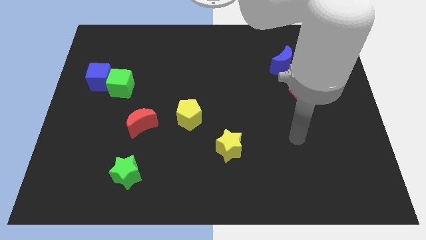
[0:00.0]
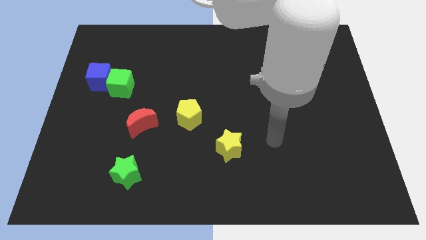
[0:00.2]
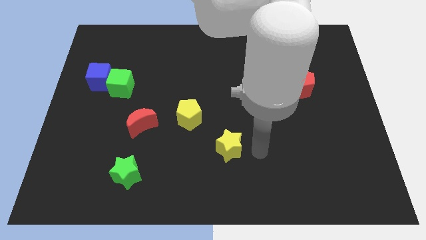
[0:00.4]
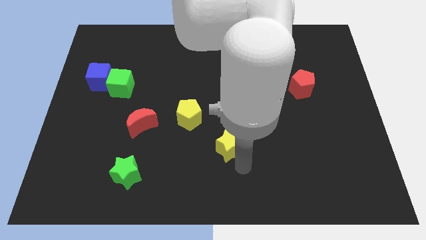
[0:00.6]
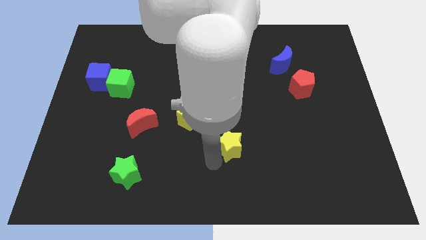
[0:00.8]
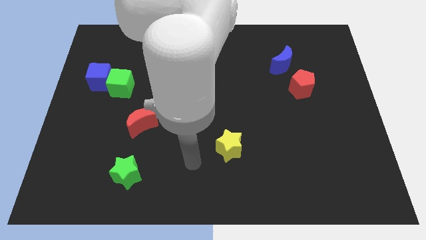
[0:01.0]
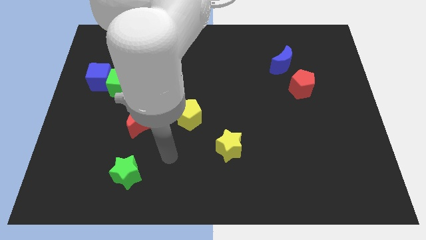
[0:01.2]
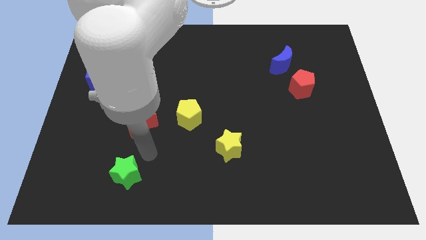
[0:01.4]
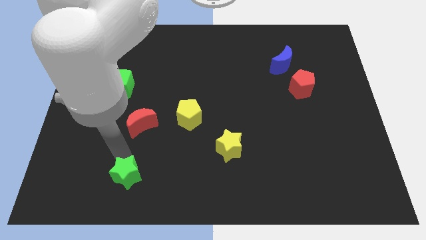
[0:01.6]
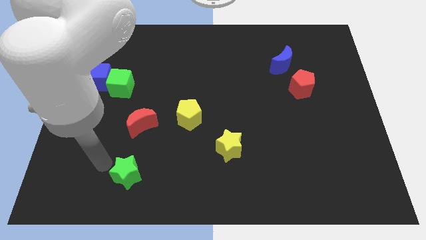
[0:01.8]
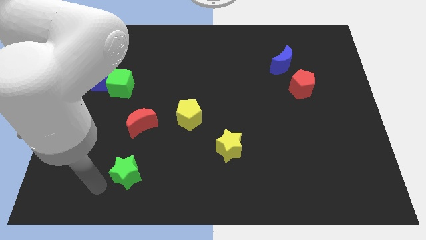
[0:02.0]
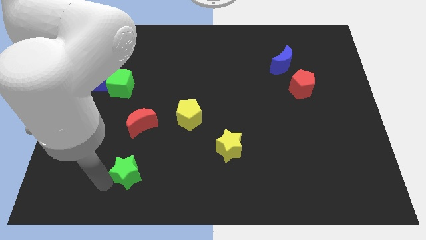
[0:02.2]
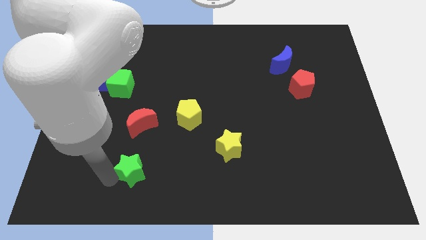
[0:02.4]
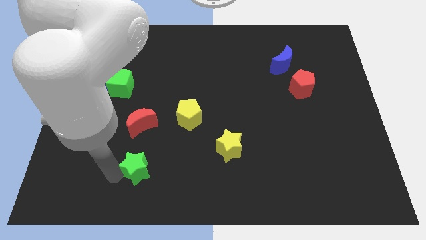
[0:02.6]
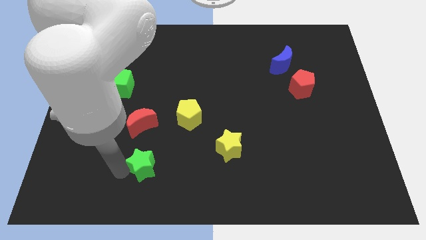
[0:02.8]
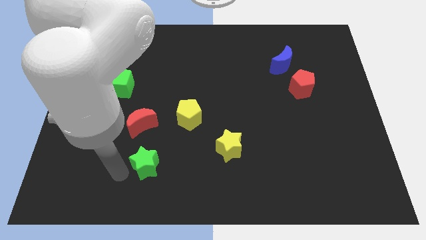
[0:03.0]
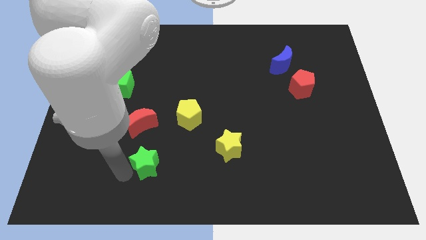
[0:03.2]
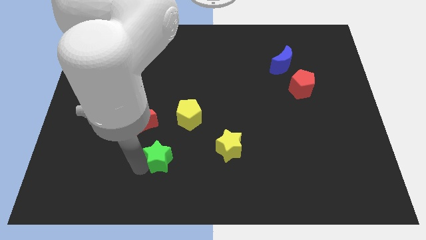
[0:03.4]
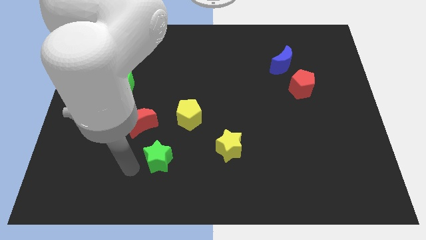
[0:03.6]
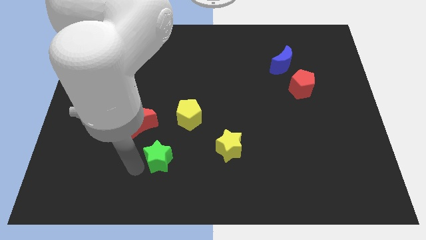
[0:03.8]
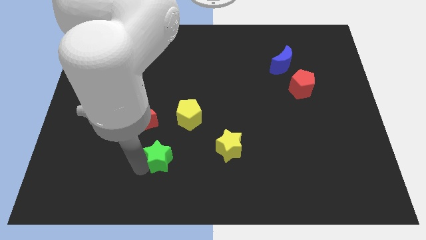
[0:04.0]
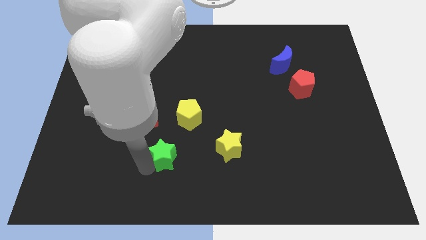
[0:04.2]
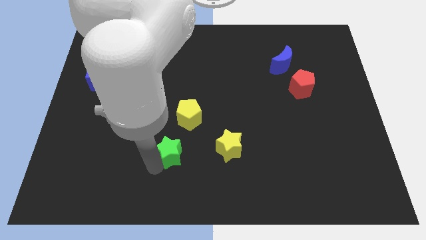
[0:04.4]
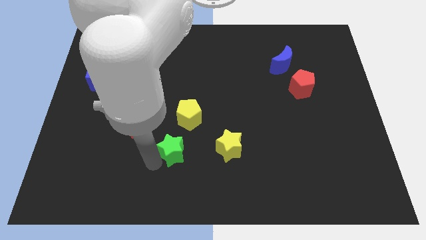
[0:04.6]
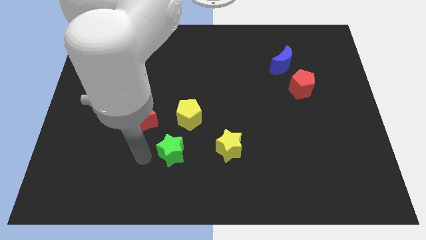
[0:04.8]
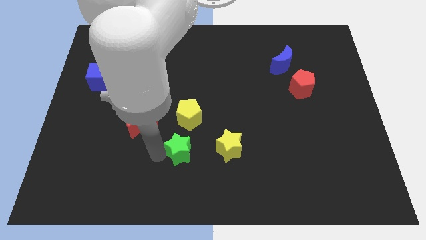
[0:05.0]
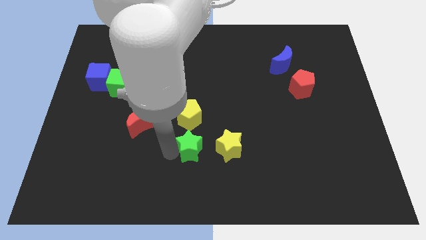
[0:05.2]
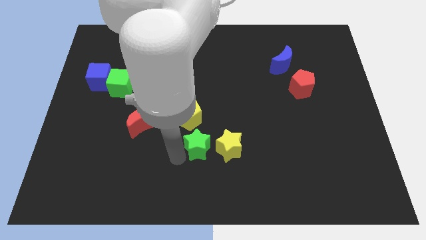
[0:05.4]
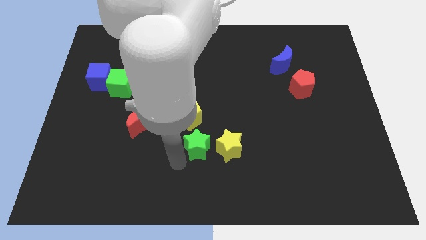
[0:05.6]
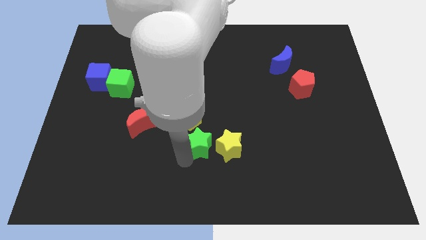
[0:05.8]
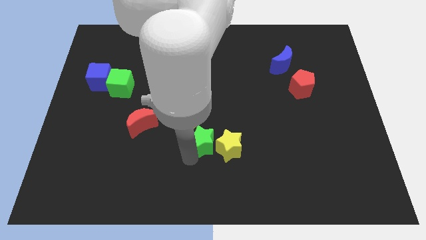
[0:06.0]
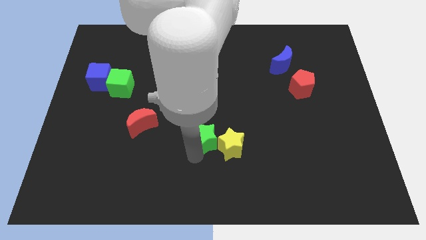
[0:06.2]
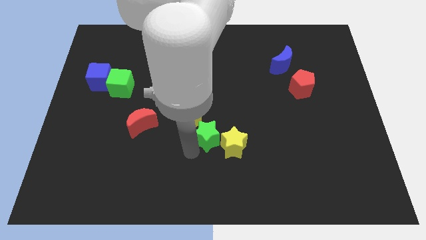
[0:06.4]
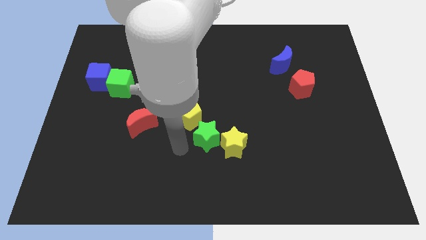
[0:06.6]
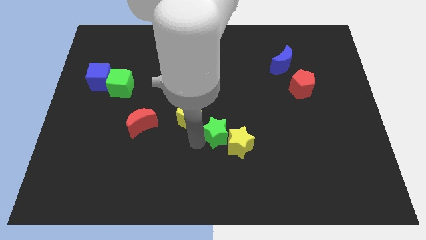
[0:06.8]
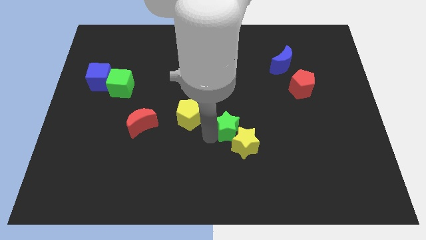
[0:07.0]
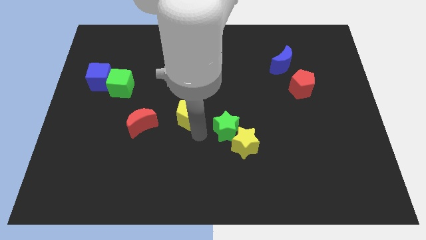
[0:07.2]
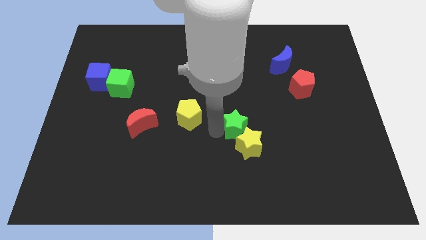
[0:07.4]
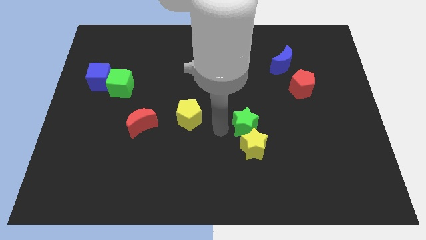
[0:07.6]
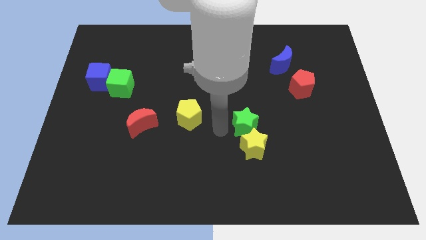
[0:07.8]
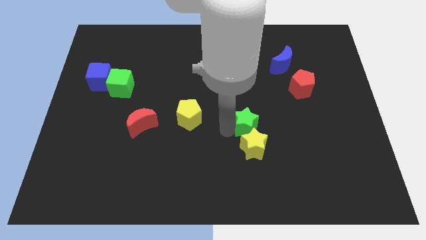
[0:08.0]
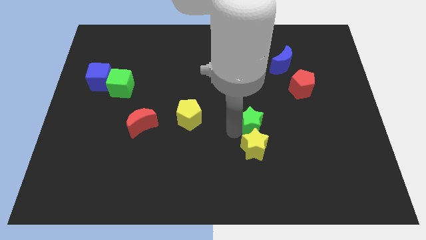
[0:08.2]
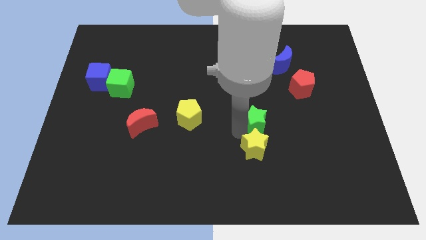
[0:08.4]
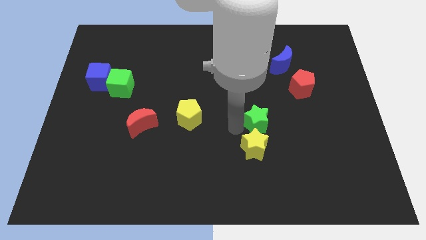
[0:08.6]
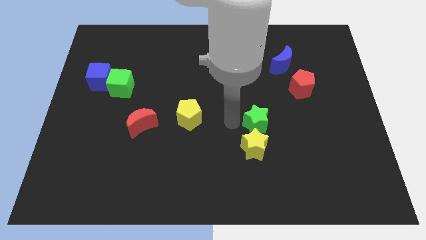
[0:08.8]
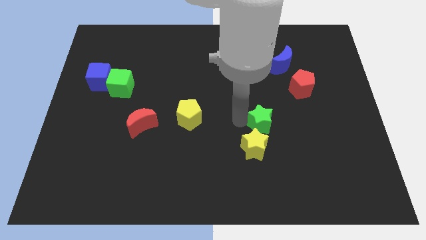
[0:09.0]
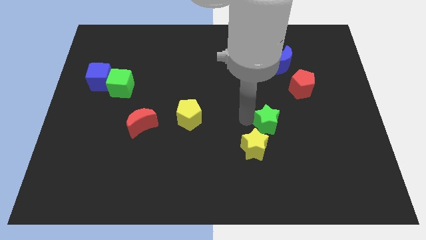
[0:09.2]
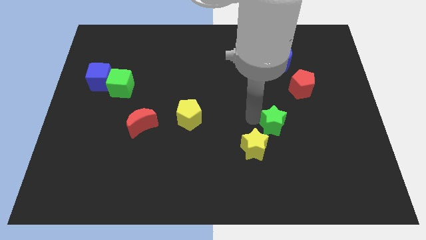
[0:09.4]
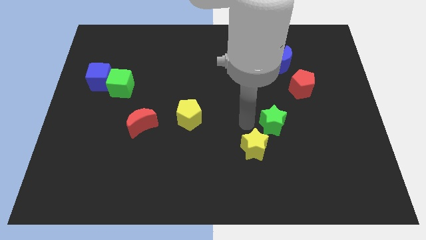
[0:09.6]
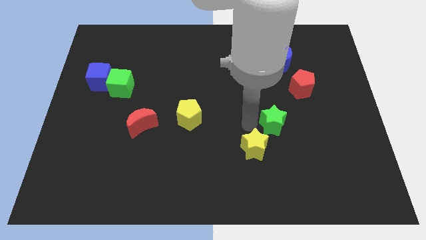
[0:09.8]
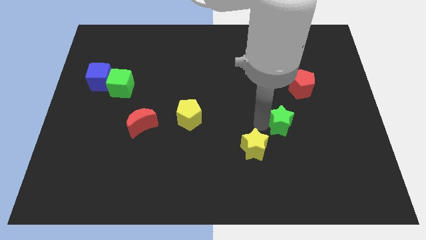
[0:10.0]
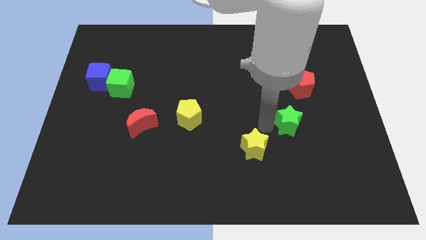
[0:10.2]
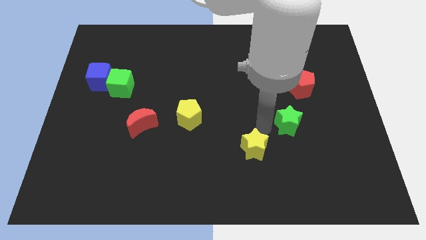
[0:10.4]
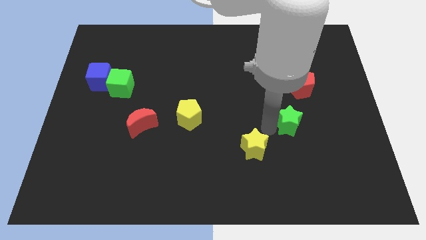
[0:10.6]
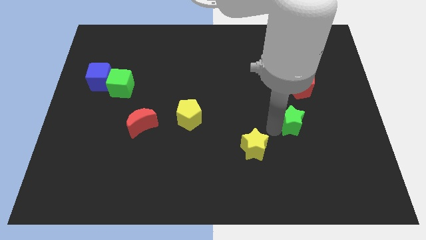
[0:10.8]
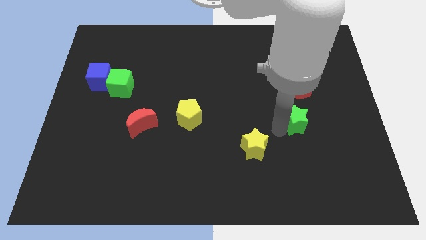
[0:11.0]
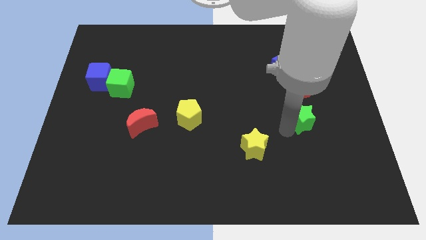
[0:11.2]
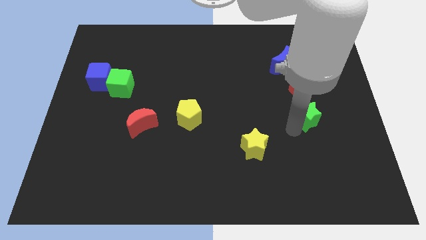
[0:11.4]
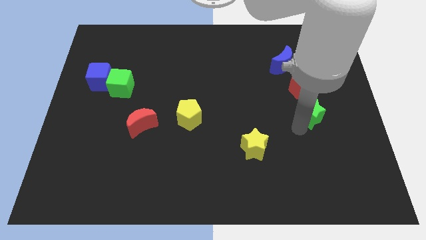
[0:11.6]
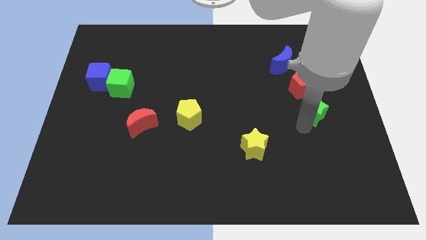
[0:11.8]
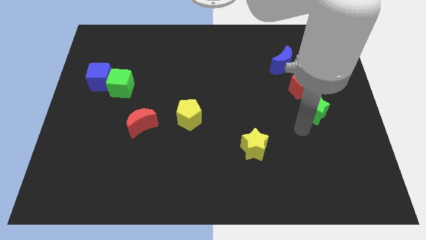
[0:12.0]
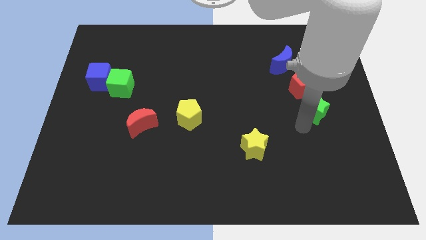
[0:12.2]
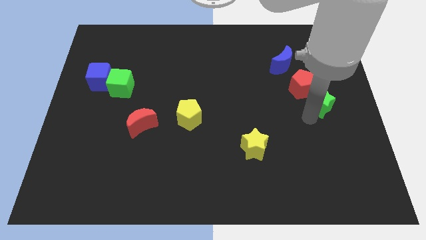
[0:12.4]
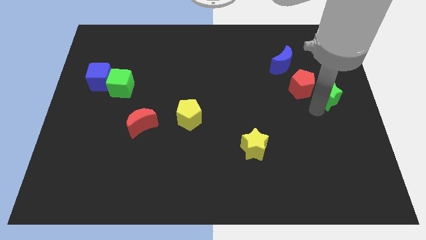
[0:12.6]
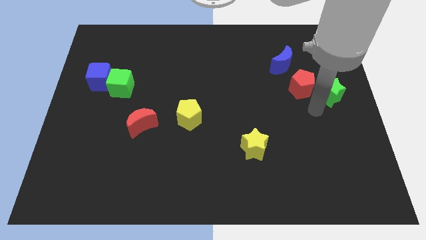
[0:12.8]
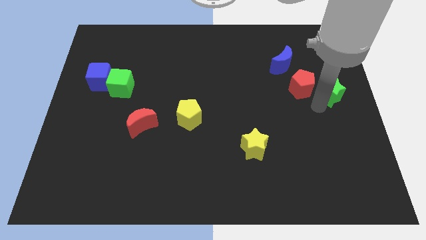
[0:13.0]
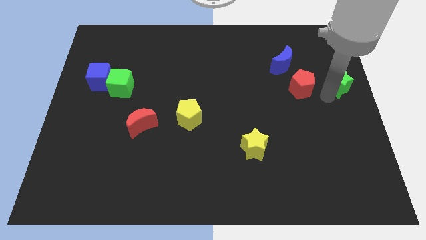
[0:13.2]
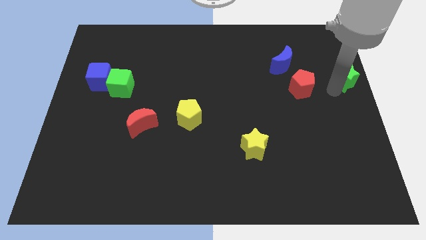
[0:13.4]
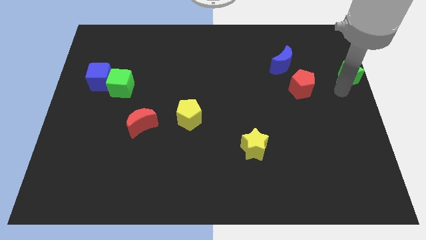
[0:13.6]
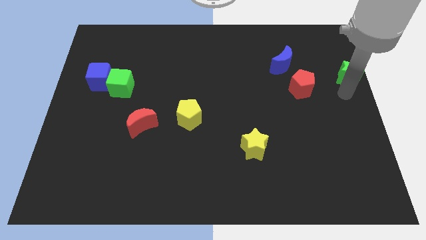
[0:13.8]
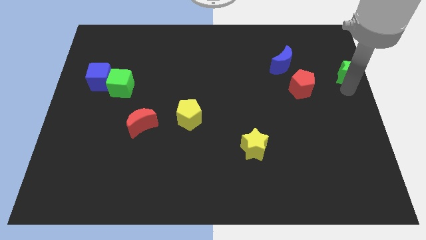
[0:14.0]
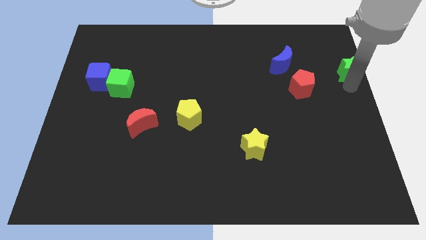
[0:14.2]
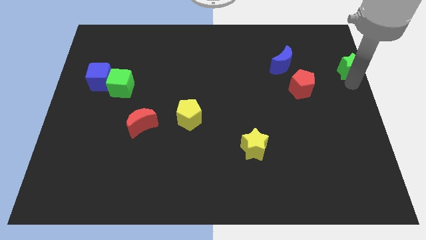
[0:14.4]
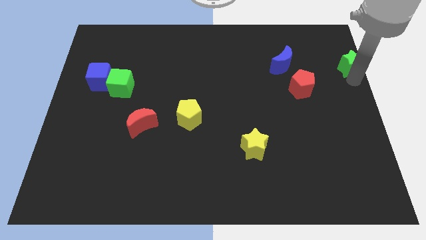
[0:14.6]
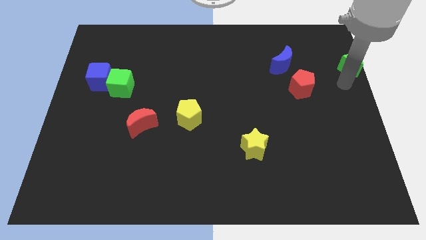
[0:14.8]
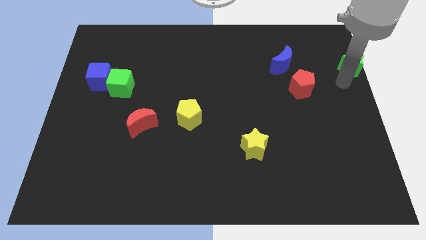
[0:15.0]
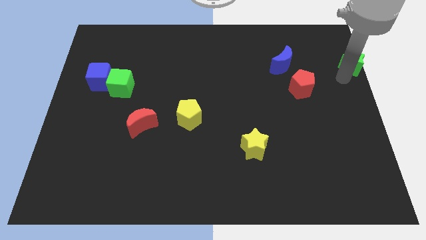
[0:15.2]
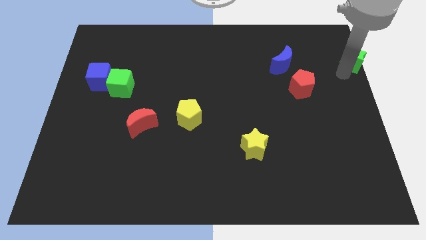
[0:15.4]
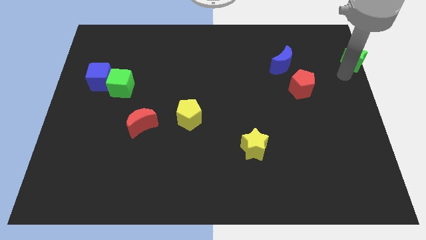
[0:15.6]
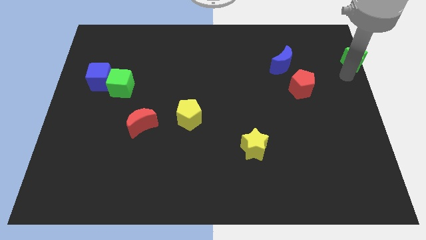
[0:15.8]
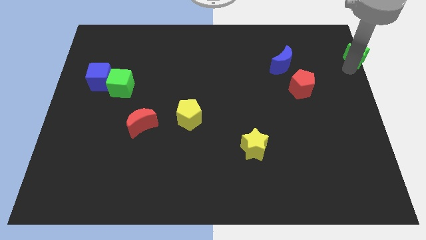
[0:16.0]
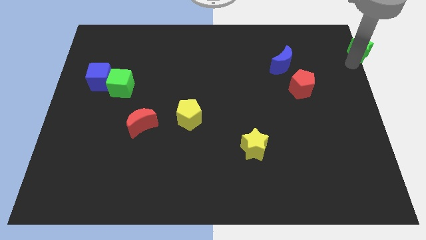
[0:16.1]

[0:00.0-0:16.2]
move the green star to the upper right corner
